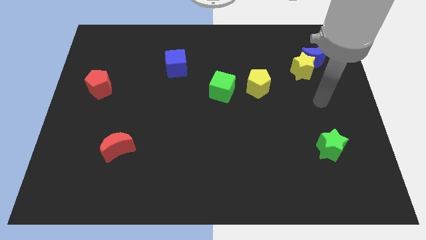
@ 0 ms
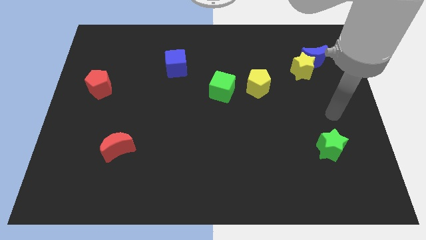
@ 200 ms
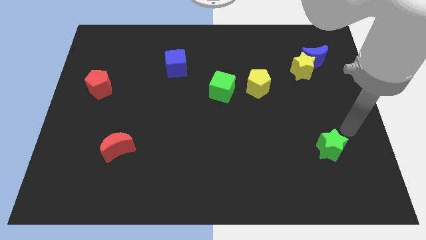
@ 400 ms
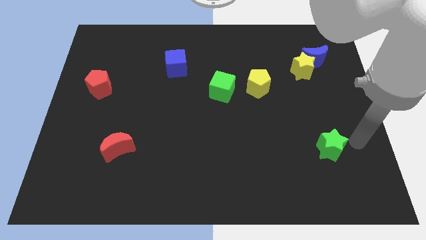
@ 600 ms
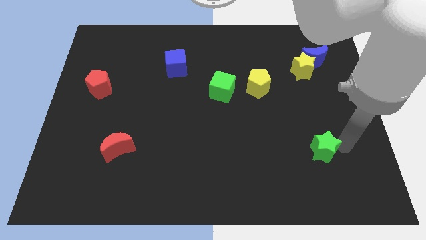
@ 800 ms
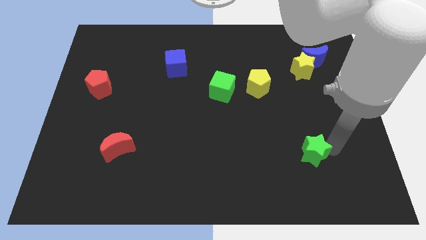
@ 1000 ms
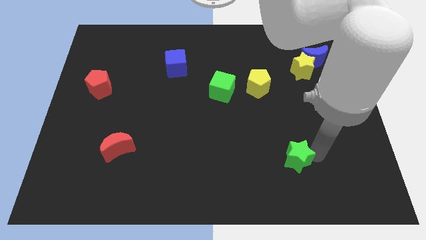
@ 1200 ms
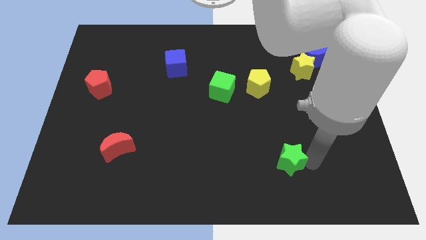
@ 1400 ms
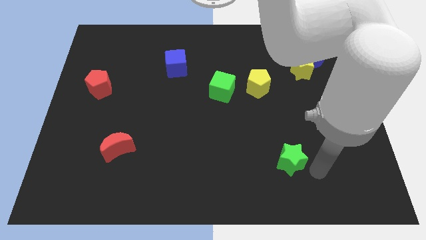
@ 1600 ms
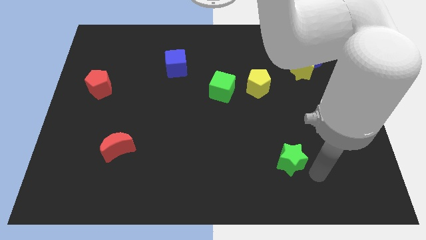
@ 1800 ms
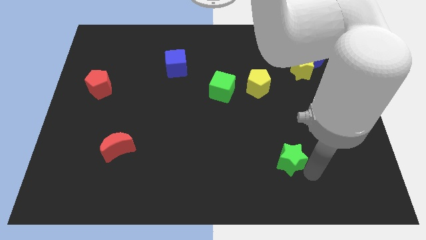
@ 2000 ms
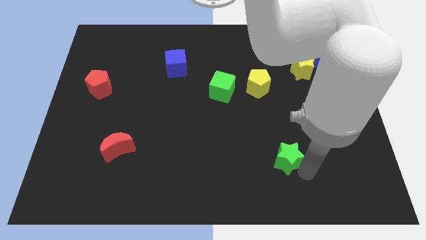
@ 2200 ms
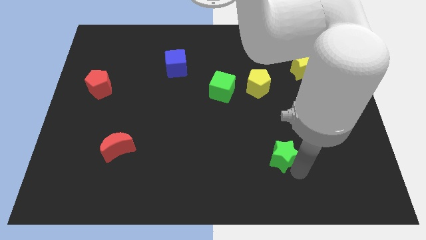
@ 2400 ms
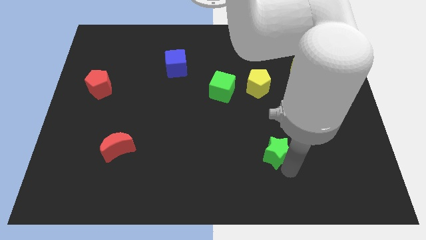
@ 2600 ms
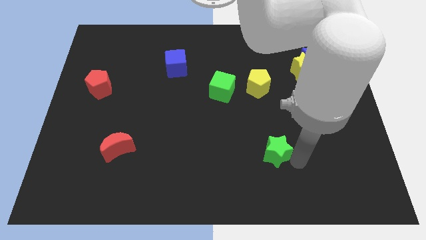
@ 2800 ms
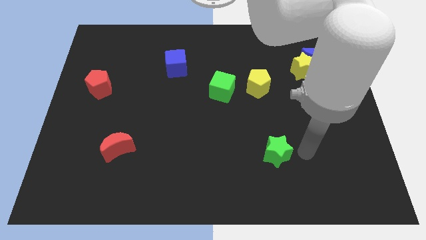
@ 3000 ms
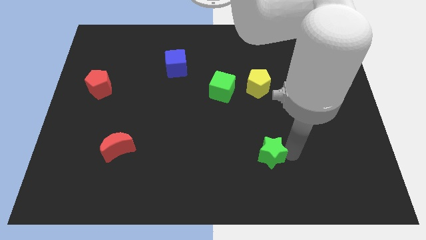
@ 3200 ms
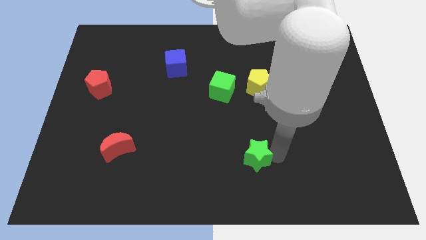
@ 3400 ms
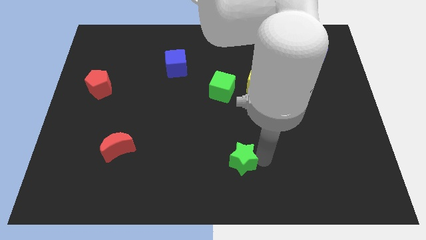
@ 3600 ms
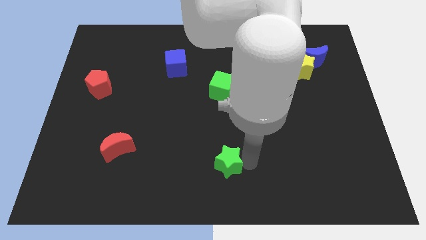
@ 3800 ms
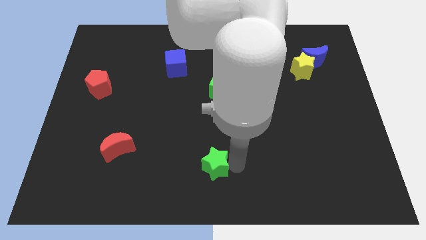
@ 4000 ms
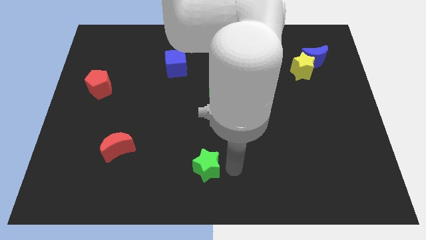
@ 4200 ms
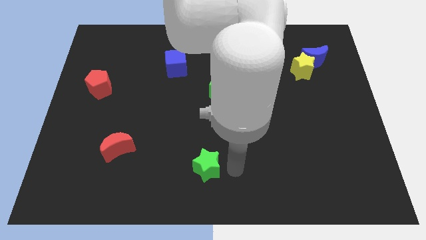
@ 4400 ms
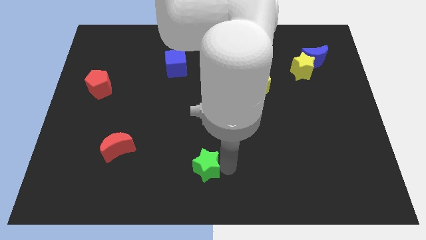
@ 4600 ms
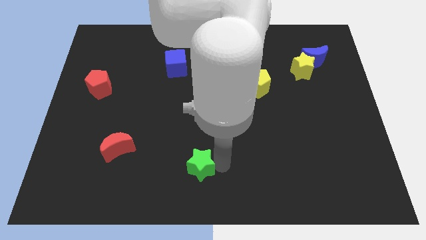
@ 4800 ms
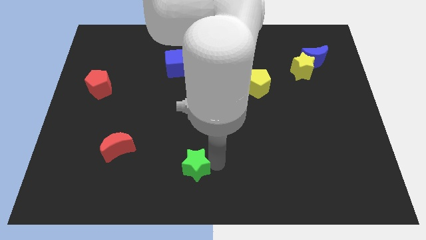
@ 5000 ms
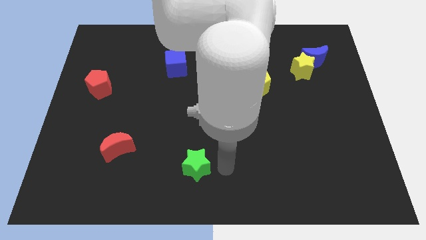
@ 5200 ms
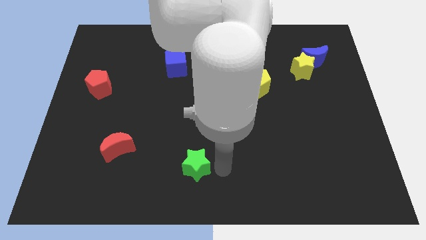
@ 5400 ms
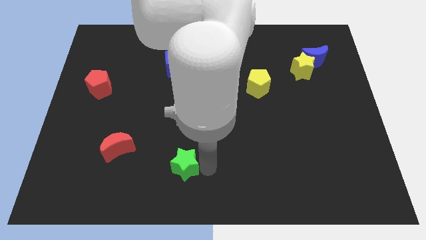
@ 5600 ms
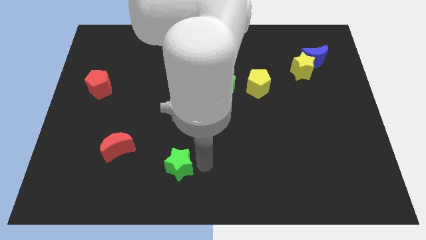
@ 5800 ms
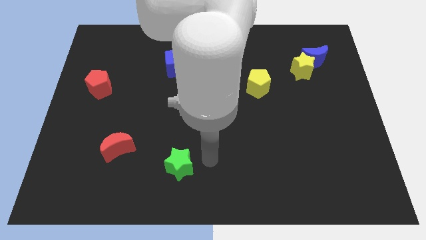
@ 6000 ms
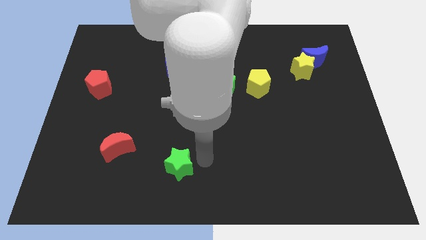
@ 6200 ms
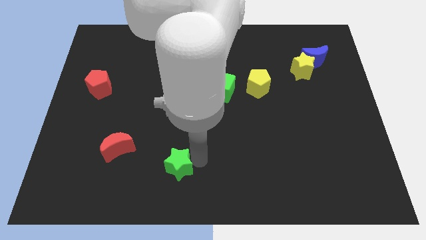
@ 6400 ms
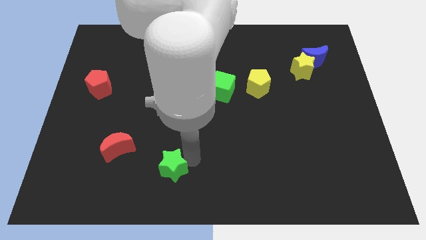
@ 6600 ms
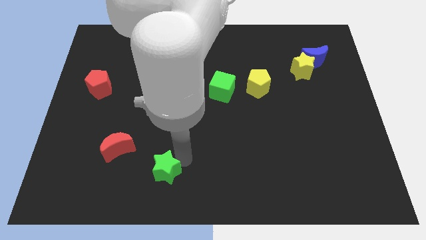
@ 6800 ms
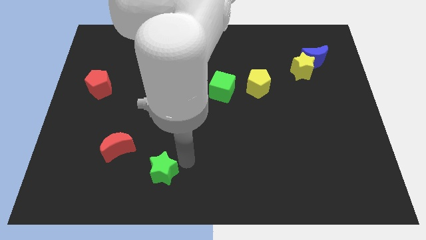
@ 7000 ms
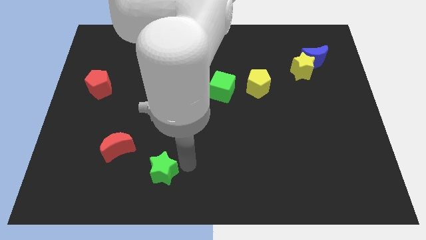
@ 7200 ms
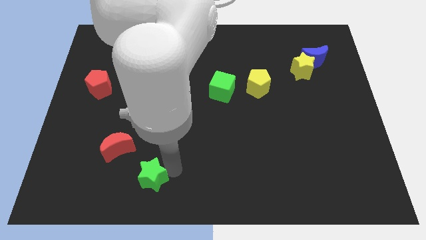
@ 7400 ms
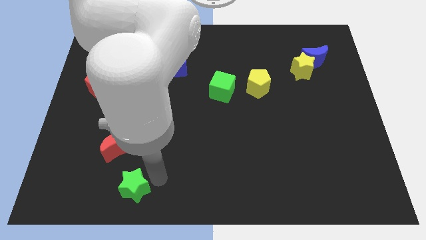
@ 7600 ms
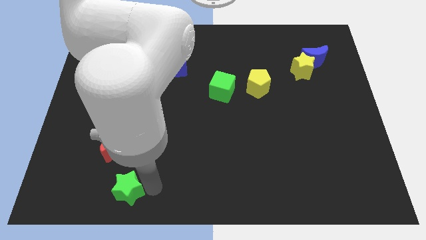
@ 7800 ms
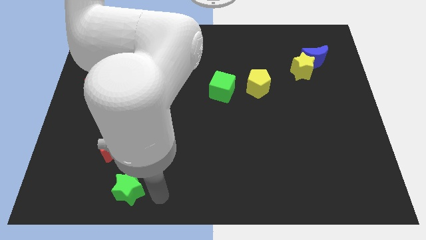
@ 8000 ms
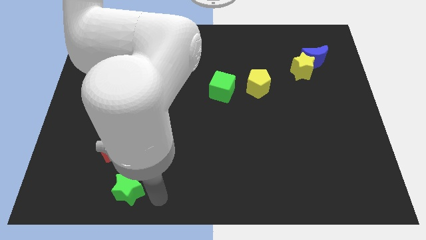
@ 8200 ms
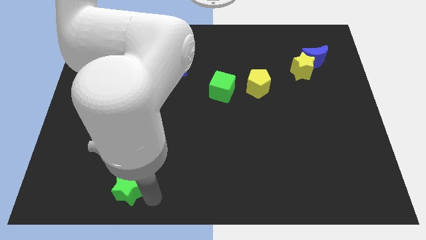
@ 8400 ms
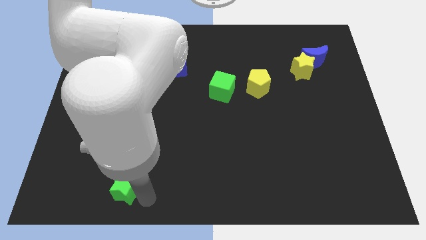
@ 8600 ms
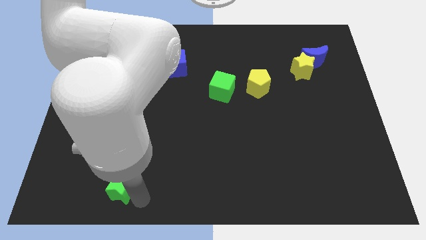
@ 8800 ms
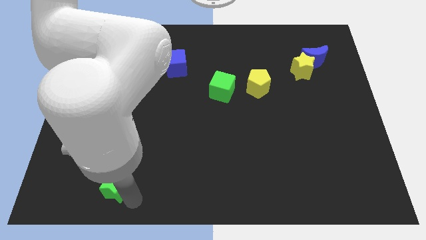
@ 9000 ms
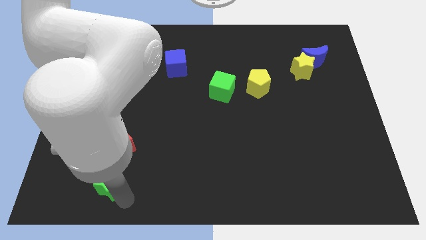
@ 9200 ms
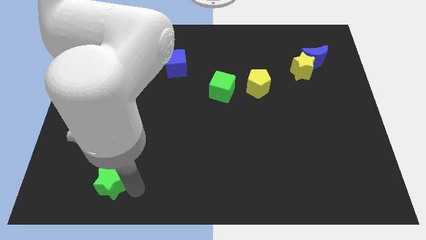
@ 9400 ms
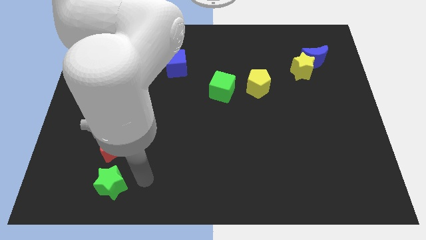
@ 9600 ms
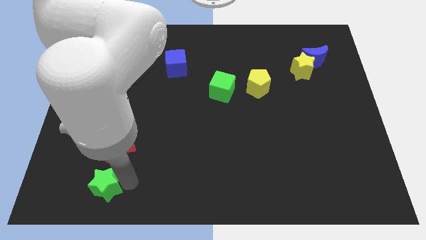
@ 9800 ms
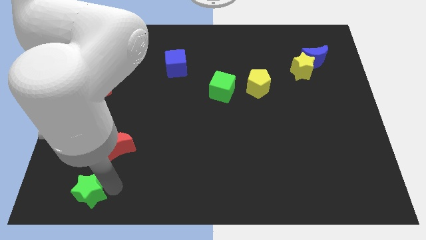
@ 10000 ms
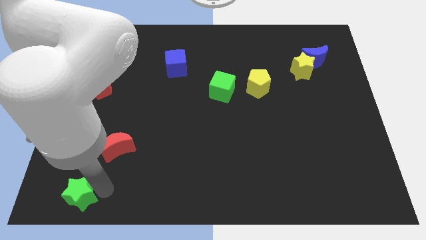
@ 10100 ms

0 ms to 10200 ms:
move the green star to the bottom left corner

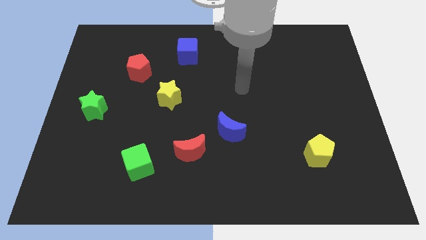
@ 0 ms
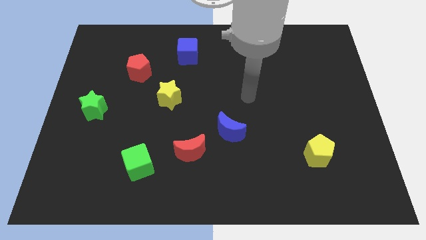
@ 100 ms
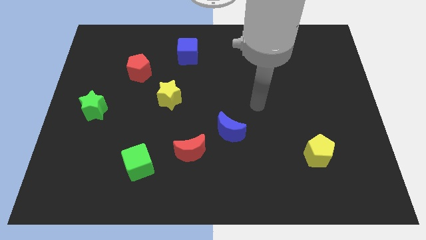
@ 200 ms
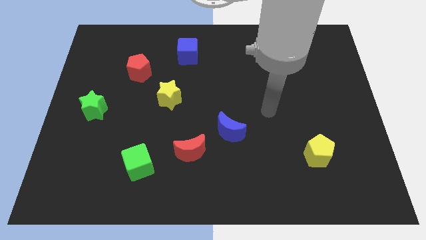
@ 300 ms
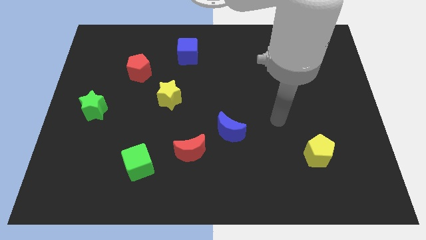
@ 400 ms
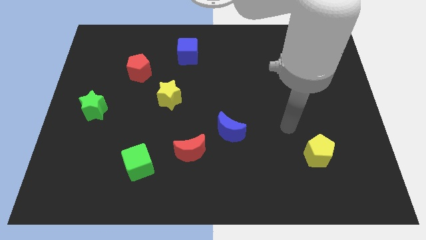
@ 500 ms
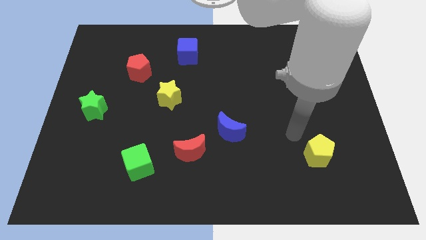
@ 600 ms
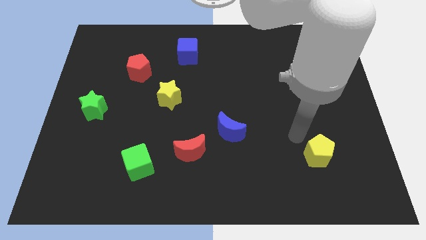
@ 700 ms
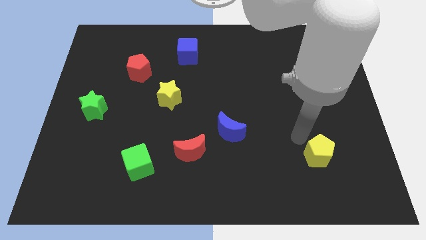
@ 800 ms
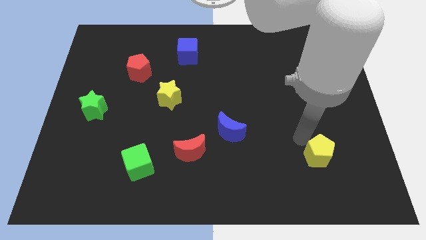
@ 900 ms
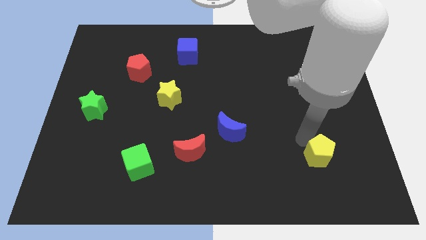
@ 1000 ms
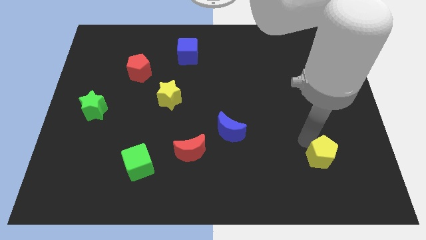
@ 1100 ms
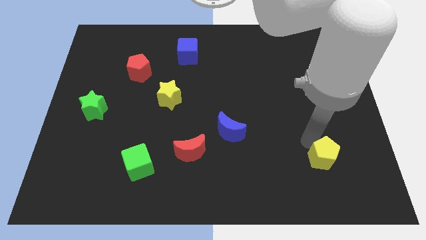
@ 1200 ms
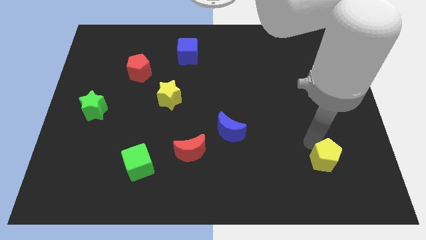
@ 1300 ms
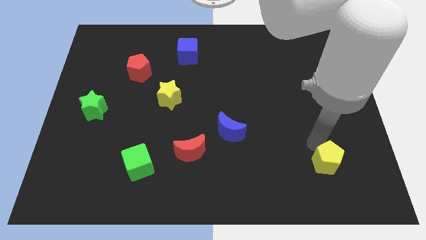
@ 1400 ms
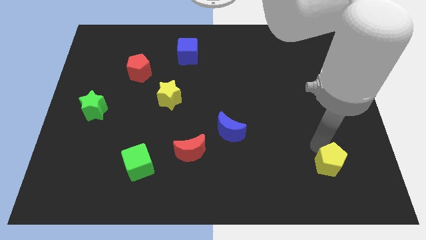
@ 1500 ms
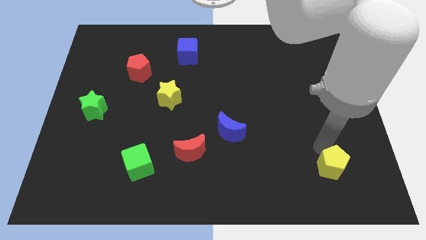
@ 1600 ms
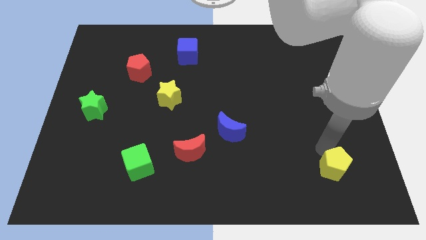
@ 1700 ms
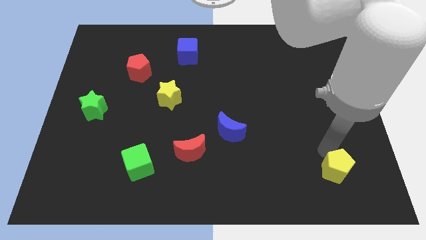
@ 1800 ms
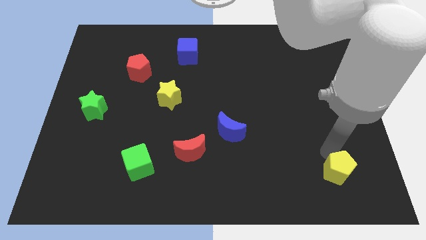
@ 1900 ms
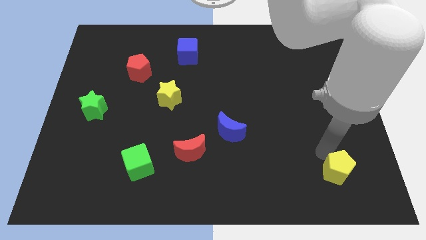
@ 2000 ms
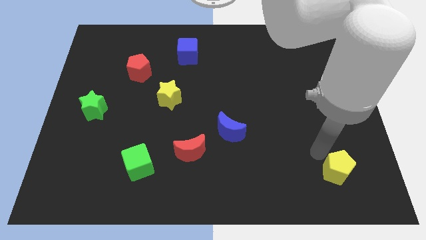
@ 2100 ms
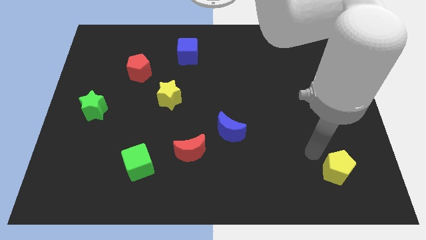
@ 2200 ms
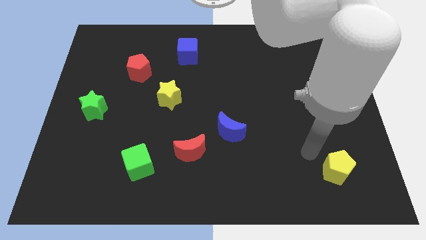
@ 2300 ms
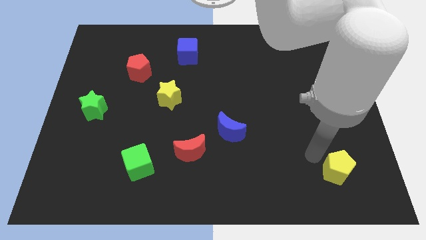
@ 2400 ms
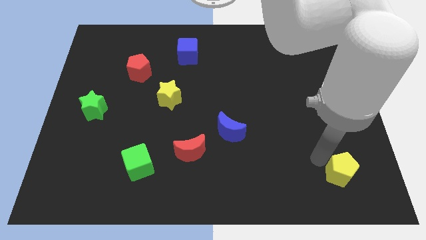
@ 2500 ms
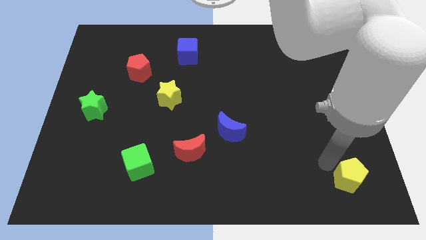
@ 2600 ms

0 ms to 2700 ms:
put the yellow pentagon to the bottom right of the board

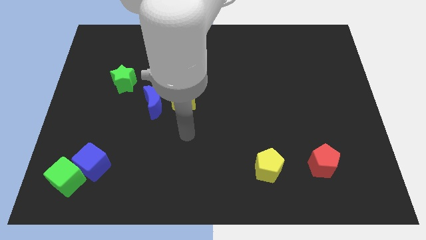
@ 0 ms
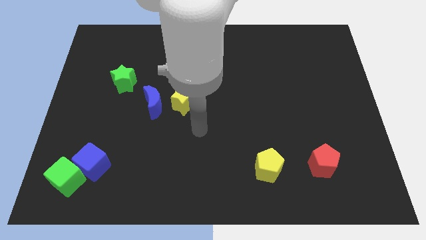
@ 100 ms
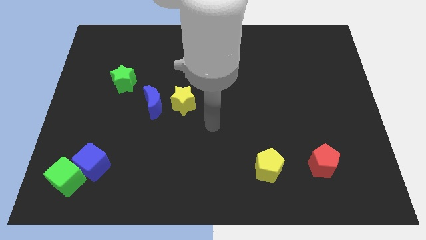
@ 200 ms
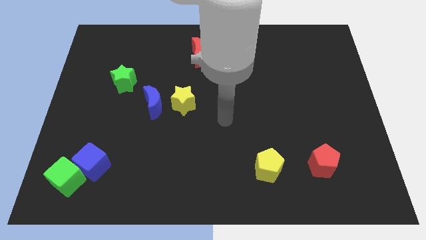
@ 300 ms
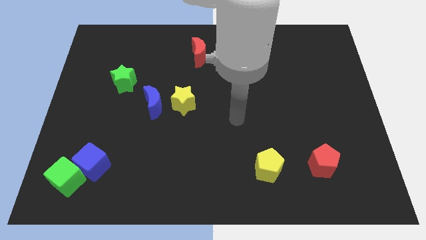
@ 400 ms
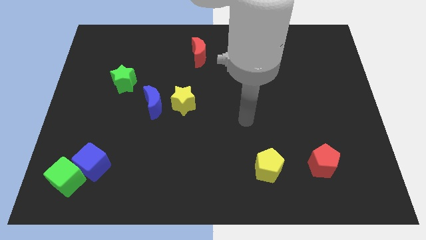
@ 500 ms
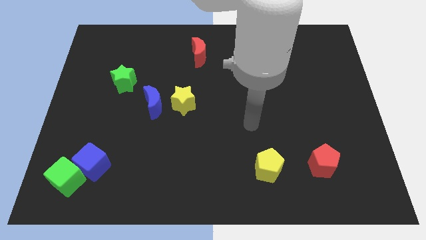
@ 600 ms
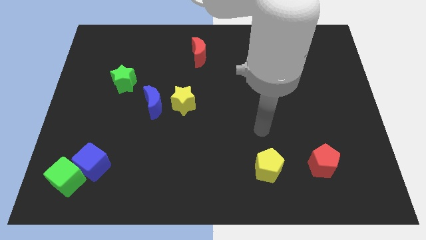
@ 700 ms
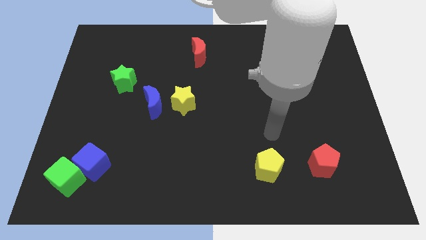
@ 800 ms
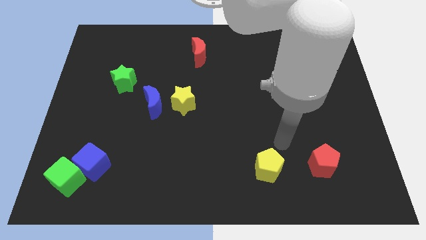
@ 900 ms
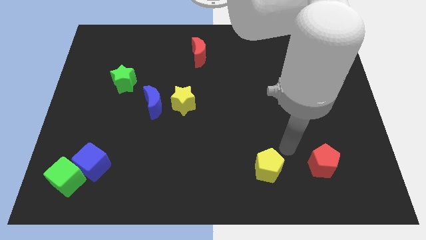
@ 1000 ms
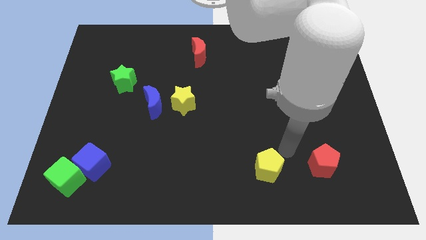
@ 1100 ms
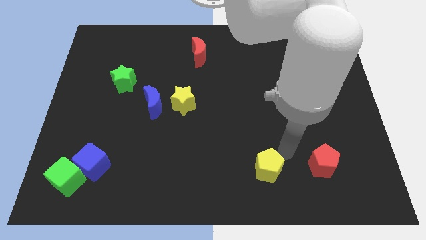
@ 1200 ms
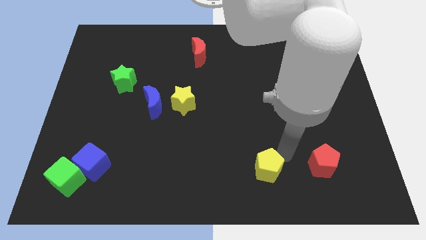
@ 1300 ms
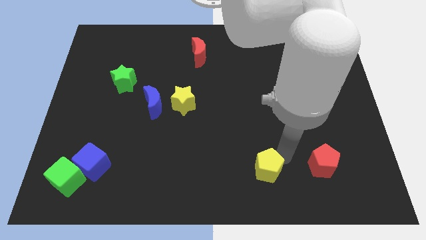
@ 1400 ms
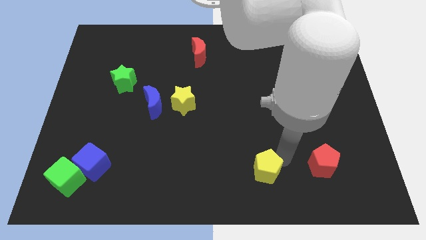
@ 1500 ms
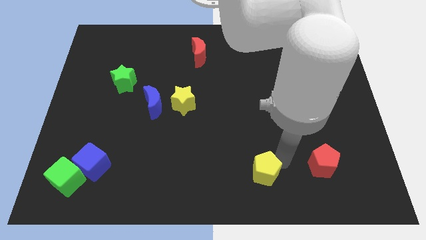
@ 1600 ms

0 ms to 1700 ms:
slide the yellow pentagon to the bottom
